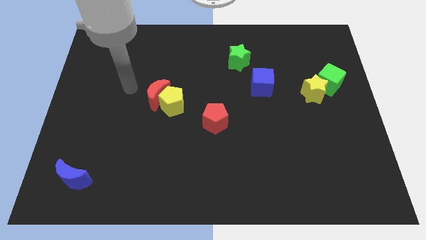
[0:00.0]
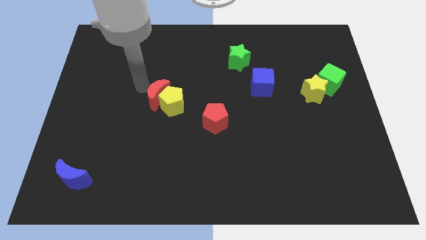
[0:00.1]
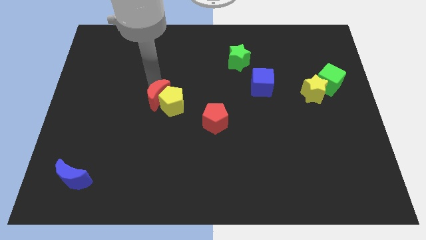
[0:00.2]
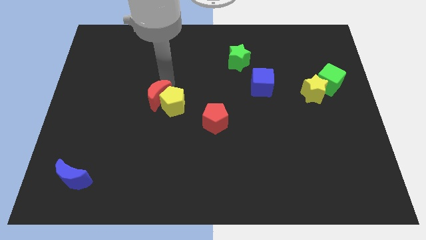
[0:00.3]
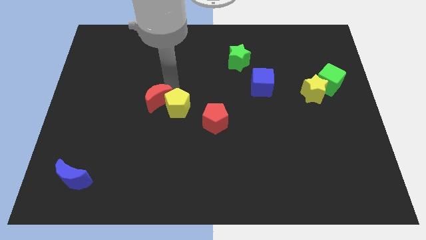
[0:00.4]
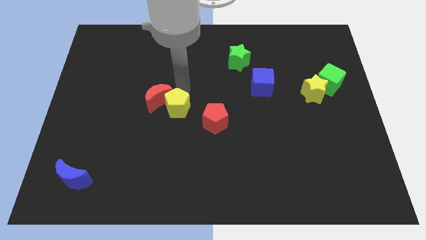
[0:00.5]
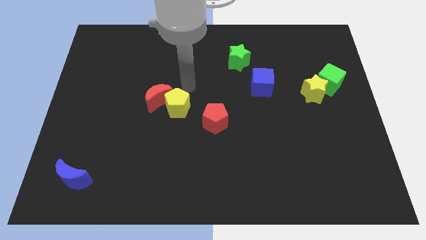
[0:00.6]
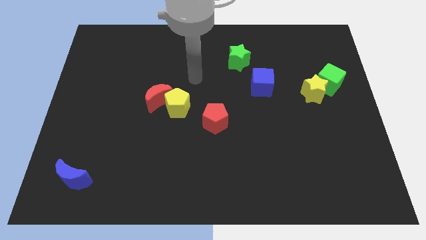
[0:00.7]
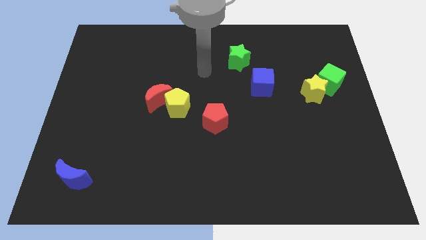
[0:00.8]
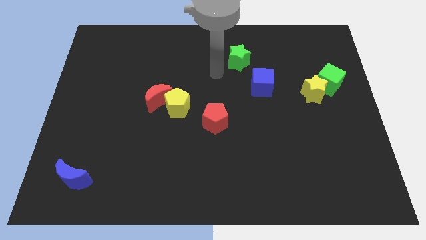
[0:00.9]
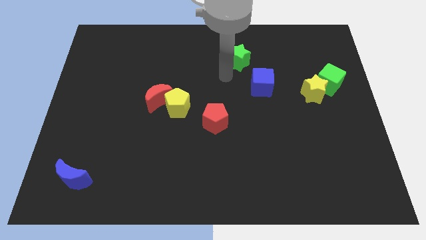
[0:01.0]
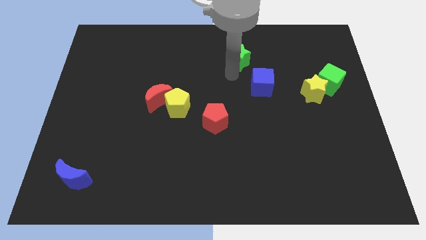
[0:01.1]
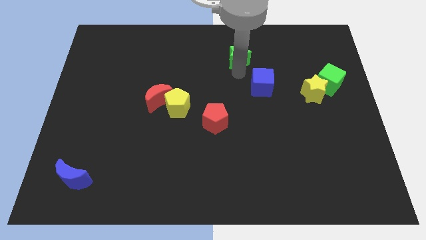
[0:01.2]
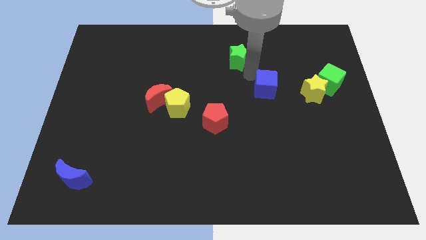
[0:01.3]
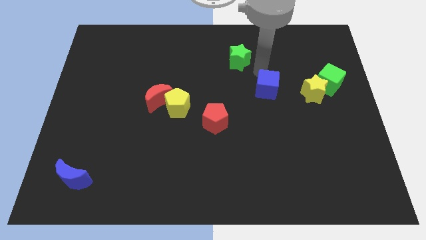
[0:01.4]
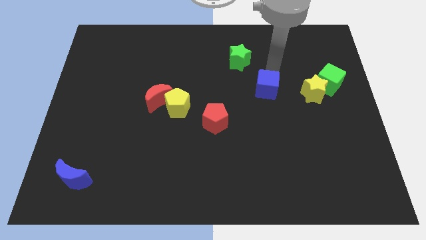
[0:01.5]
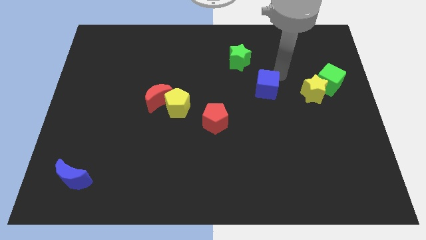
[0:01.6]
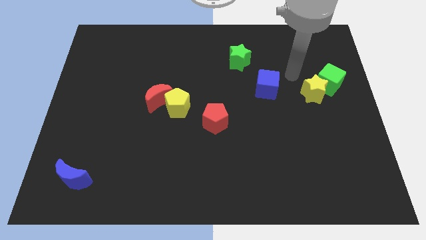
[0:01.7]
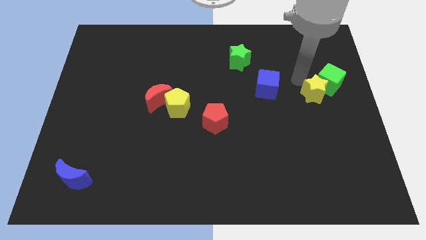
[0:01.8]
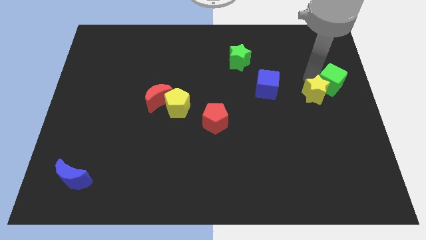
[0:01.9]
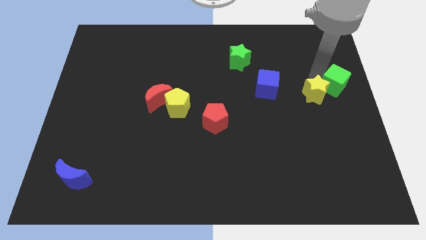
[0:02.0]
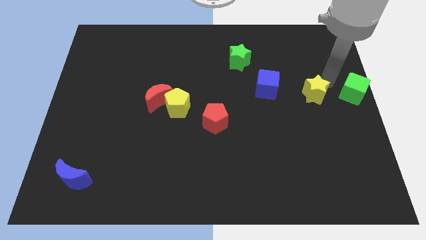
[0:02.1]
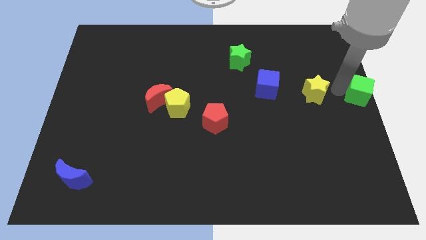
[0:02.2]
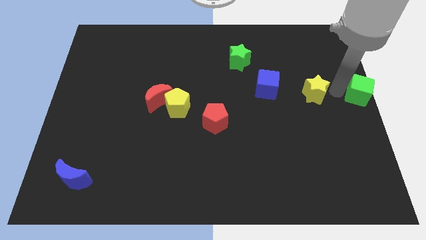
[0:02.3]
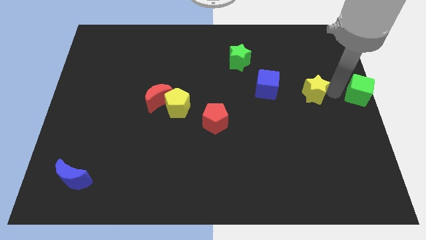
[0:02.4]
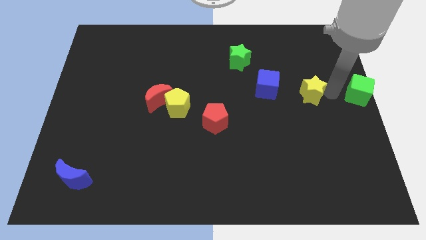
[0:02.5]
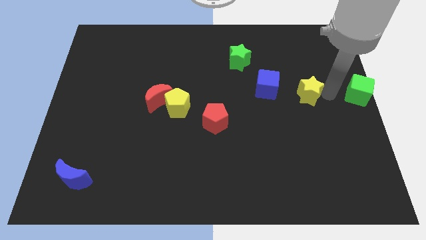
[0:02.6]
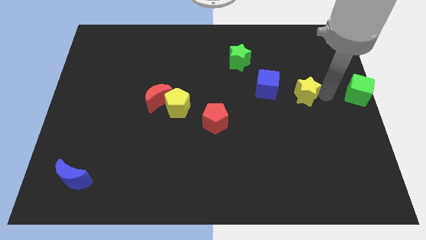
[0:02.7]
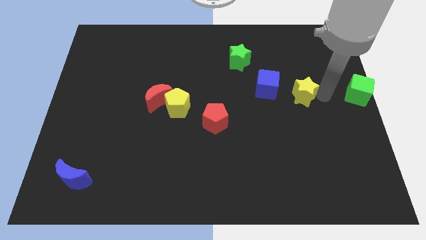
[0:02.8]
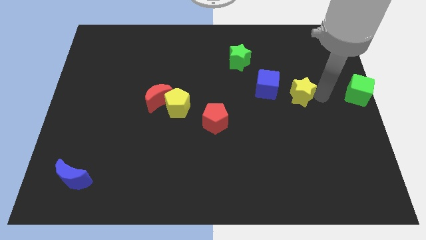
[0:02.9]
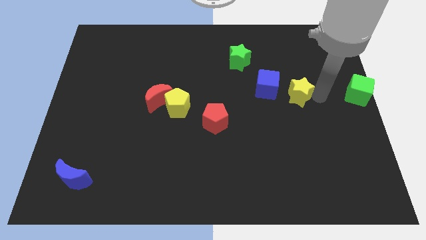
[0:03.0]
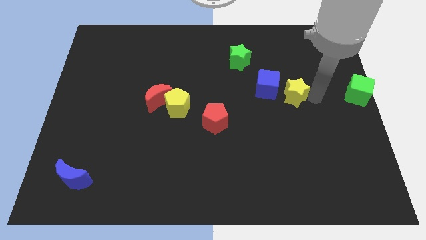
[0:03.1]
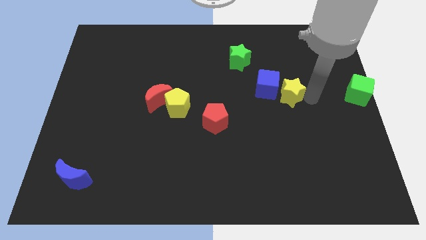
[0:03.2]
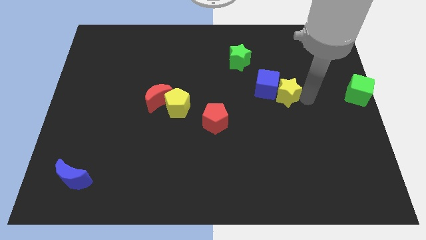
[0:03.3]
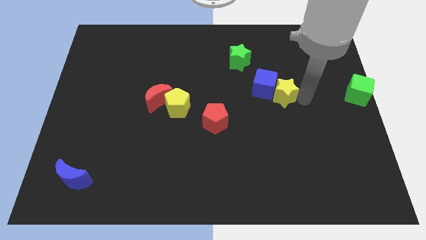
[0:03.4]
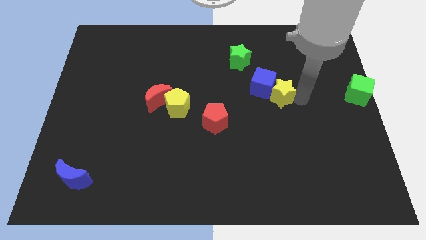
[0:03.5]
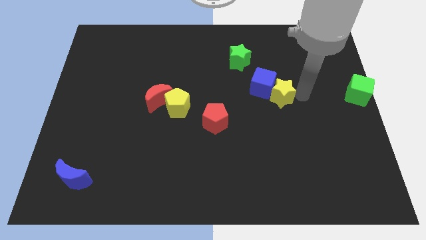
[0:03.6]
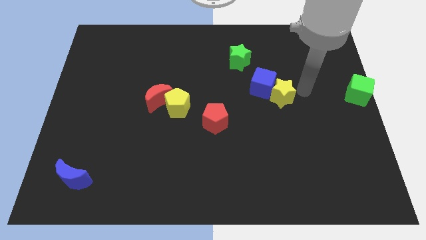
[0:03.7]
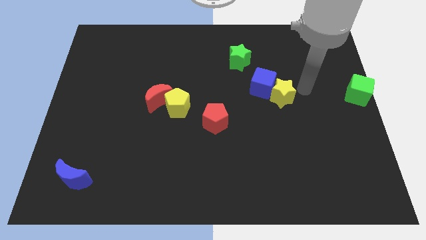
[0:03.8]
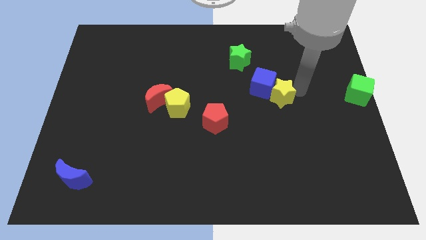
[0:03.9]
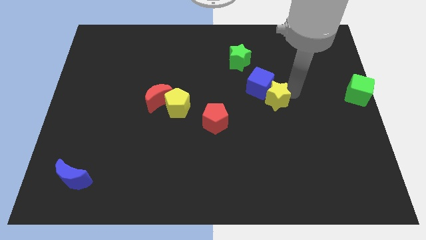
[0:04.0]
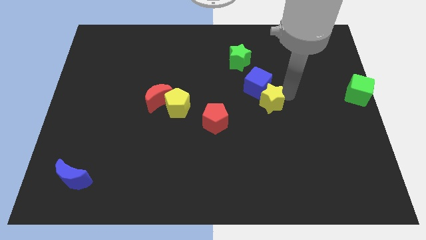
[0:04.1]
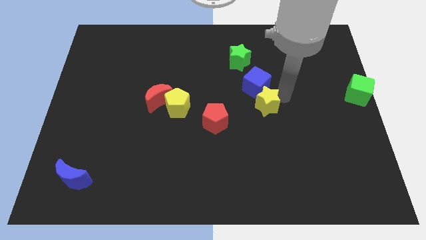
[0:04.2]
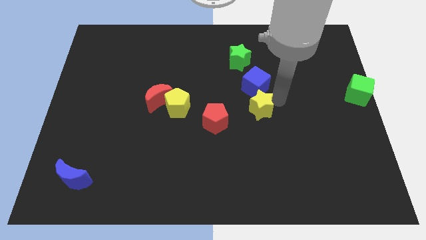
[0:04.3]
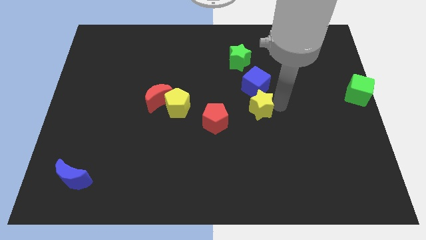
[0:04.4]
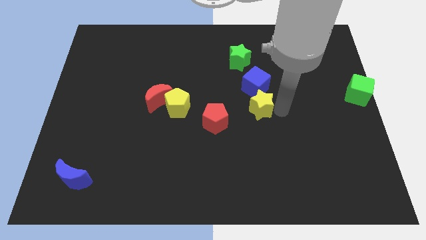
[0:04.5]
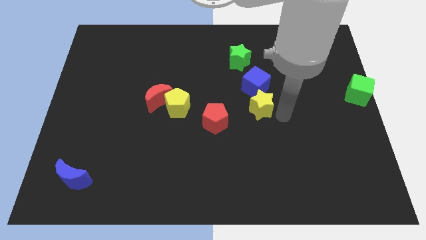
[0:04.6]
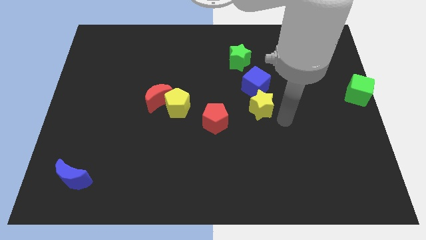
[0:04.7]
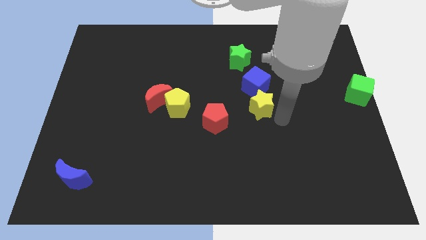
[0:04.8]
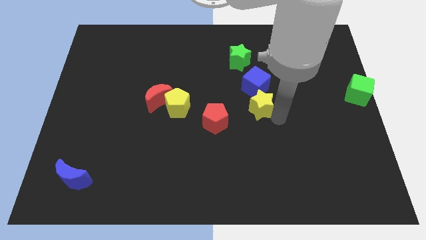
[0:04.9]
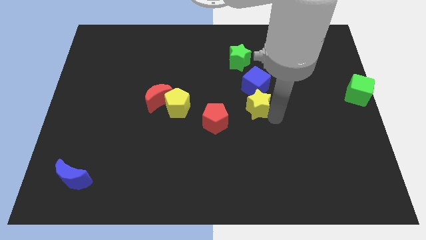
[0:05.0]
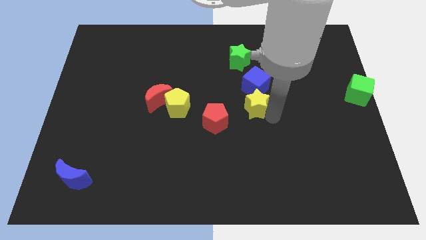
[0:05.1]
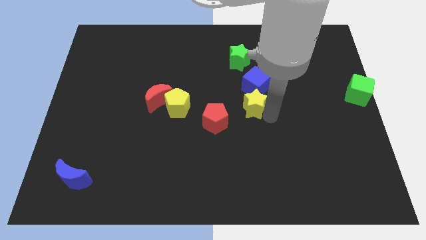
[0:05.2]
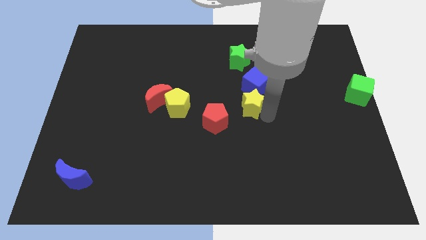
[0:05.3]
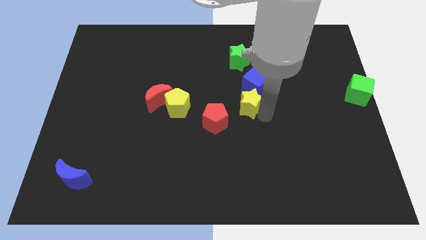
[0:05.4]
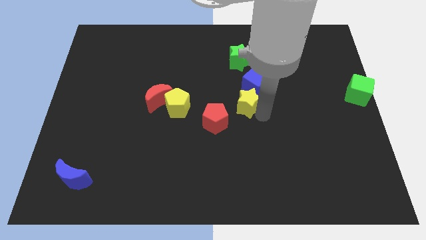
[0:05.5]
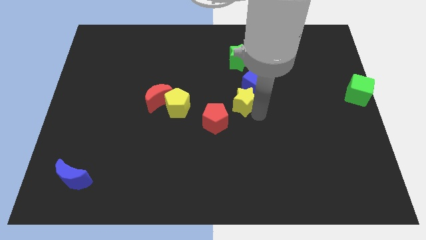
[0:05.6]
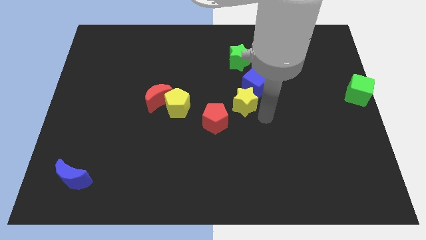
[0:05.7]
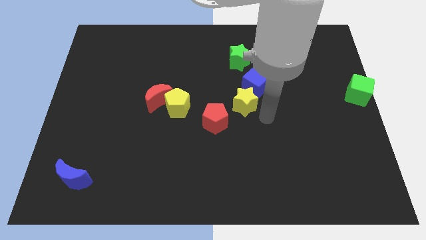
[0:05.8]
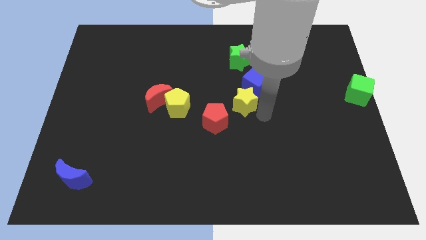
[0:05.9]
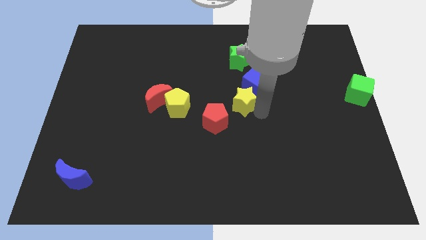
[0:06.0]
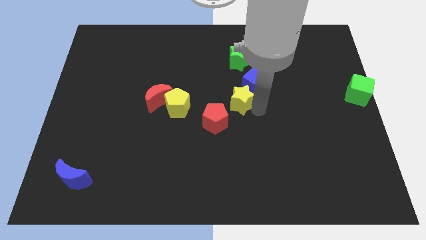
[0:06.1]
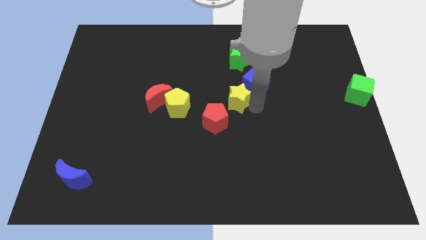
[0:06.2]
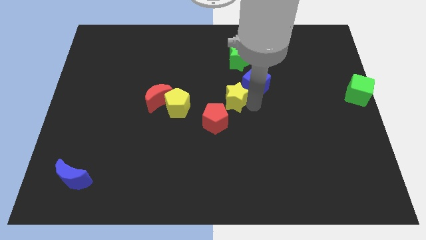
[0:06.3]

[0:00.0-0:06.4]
move the yellow star to the top of the red pentagon
